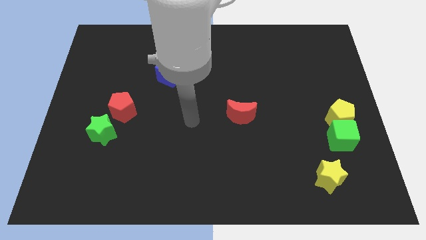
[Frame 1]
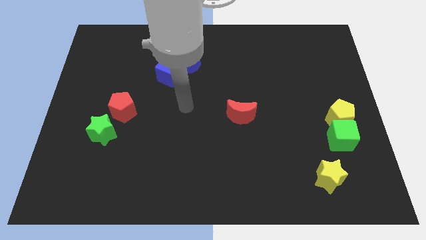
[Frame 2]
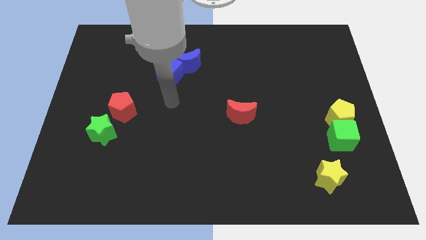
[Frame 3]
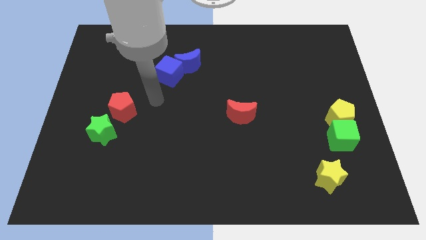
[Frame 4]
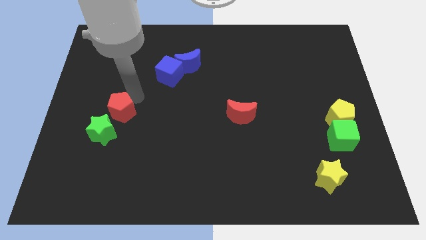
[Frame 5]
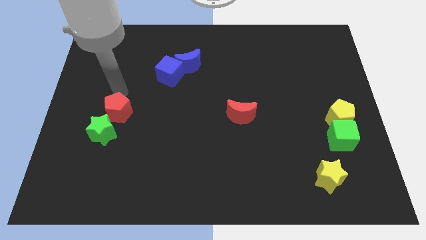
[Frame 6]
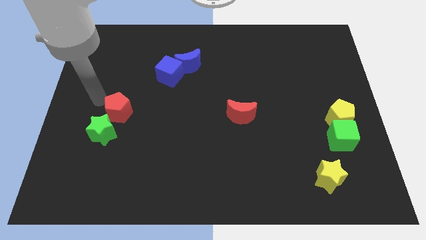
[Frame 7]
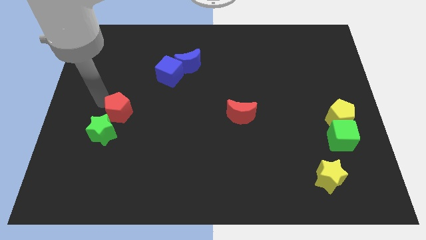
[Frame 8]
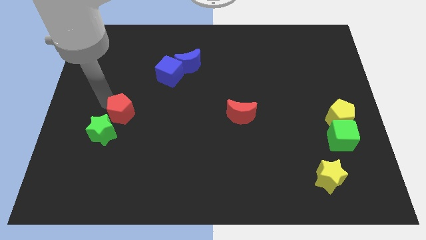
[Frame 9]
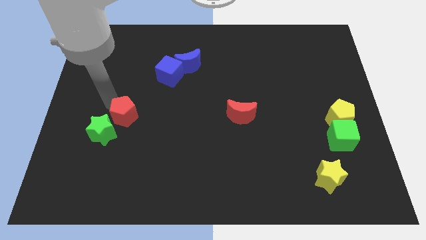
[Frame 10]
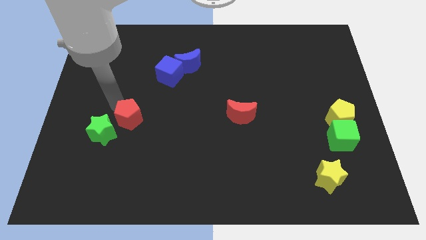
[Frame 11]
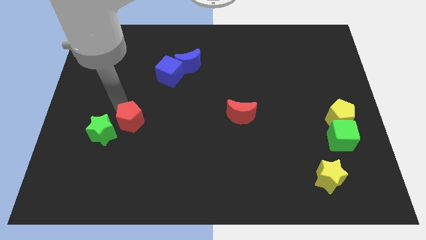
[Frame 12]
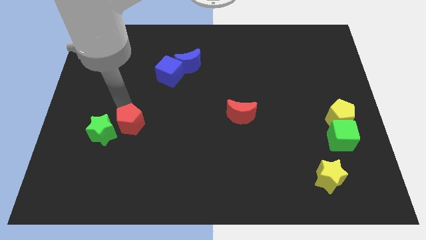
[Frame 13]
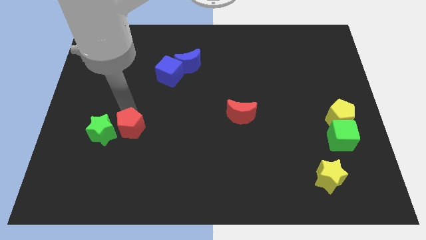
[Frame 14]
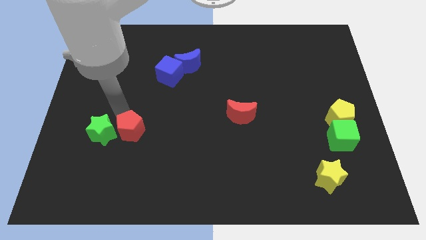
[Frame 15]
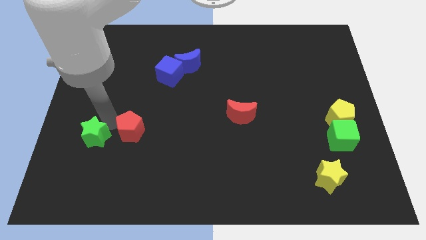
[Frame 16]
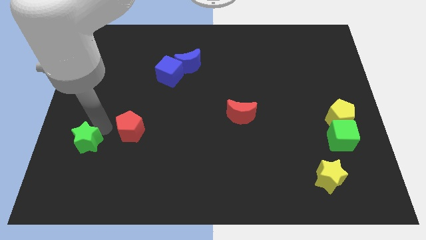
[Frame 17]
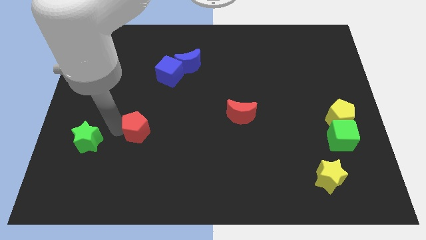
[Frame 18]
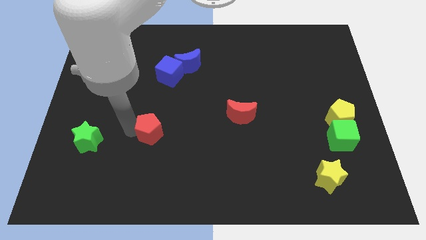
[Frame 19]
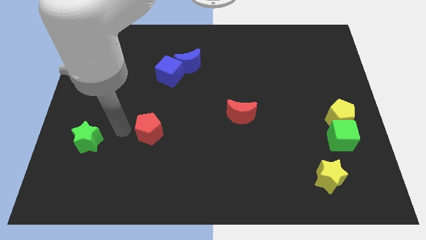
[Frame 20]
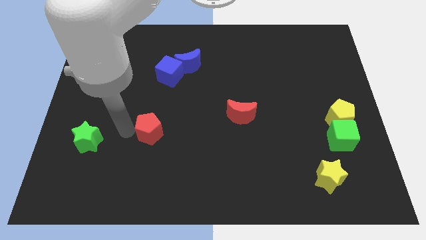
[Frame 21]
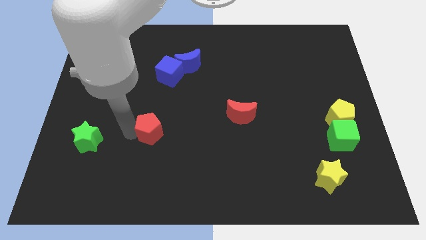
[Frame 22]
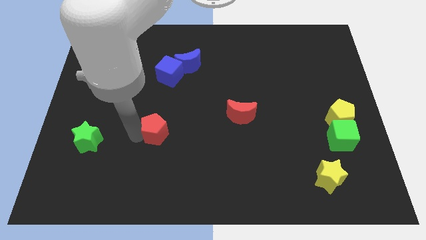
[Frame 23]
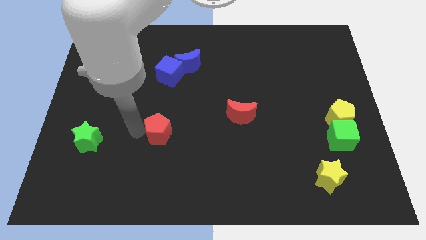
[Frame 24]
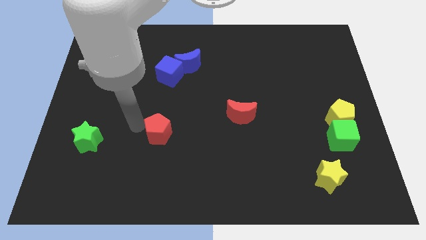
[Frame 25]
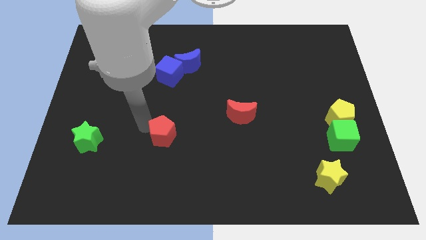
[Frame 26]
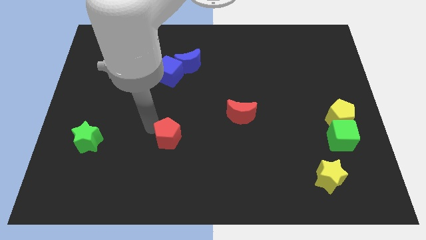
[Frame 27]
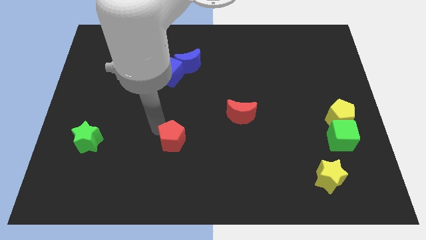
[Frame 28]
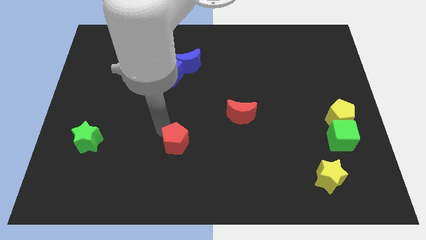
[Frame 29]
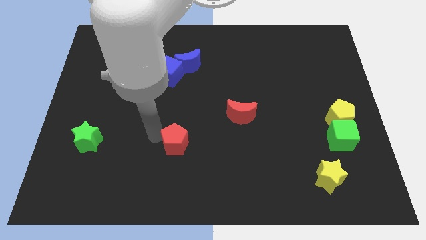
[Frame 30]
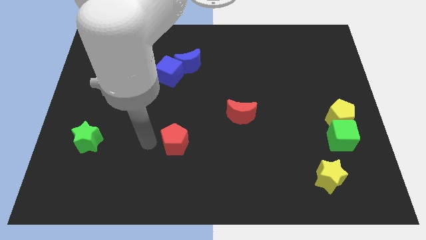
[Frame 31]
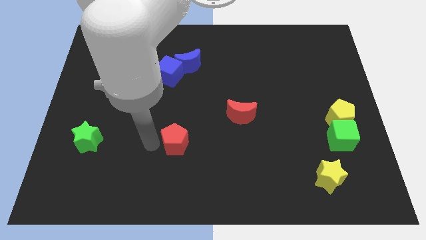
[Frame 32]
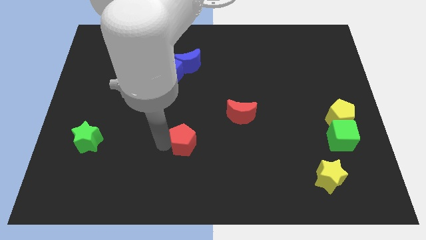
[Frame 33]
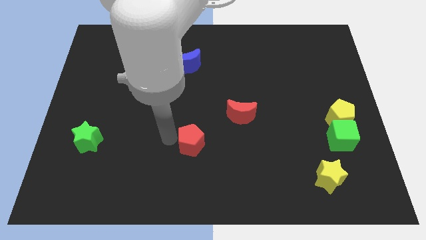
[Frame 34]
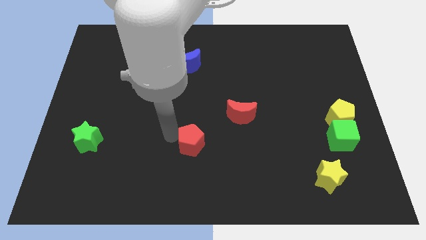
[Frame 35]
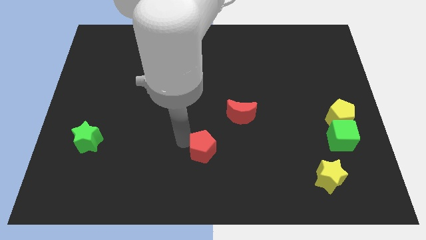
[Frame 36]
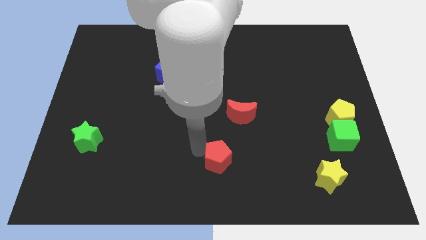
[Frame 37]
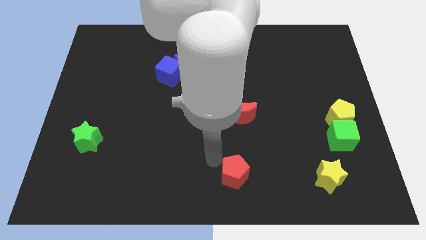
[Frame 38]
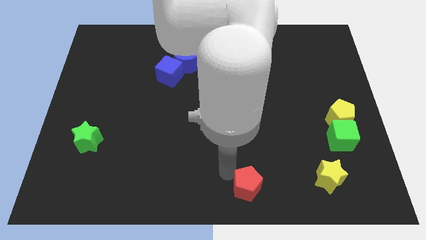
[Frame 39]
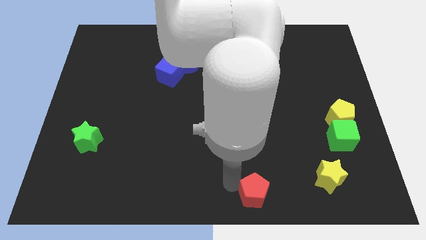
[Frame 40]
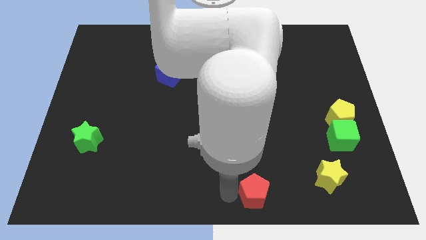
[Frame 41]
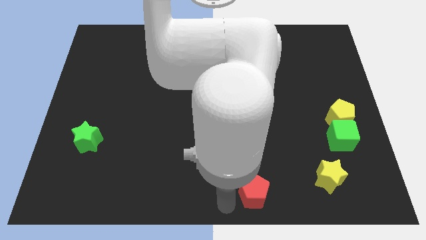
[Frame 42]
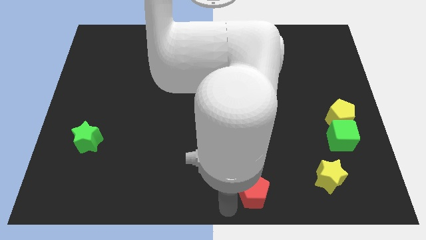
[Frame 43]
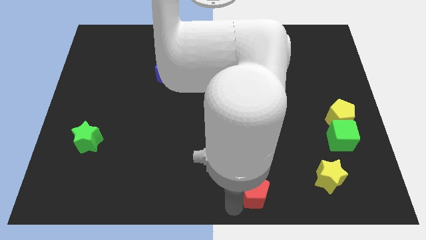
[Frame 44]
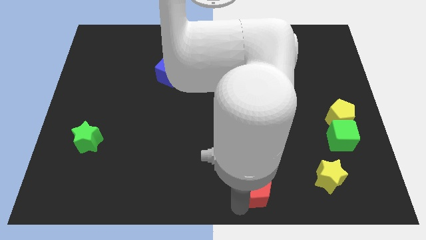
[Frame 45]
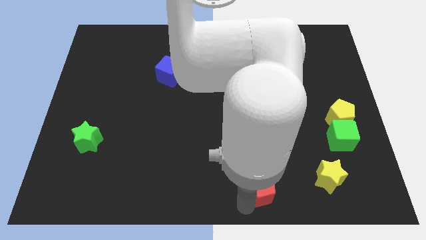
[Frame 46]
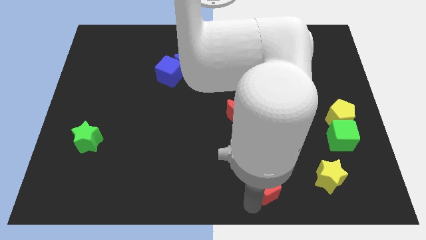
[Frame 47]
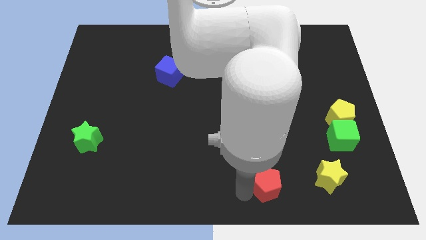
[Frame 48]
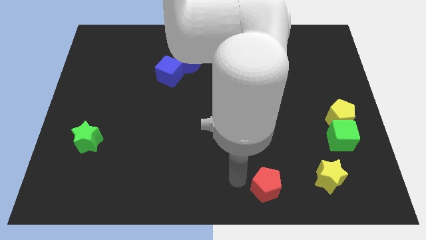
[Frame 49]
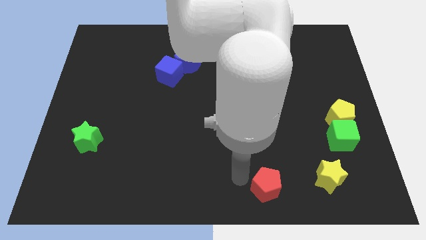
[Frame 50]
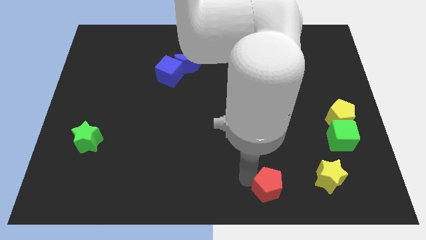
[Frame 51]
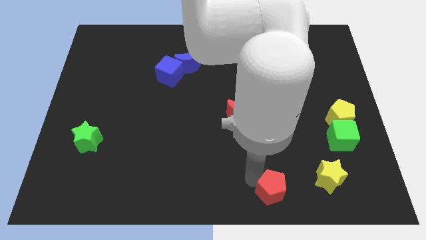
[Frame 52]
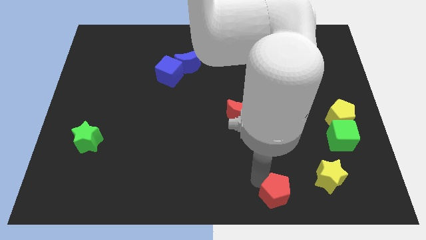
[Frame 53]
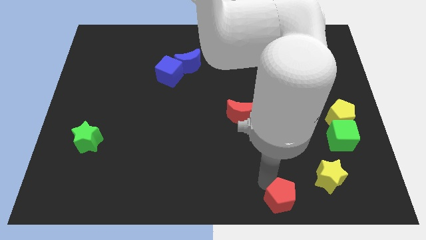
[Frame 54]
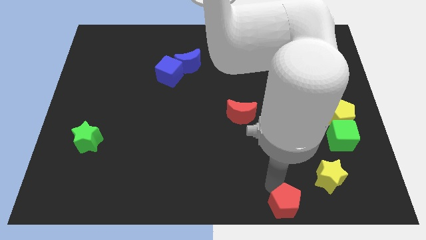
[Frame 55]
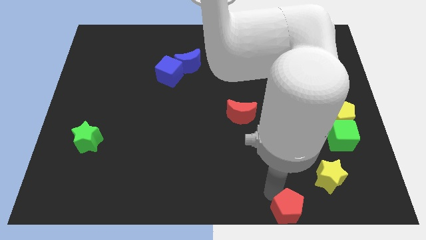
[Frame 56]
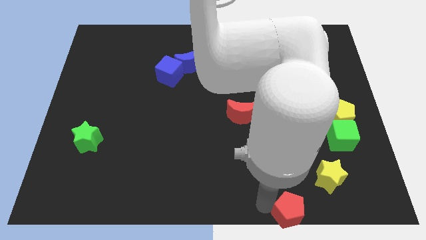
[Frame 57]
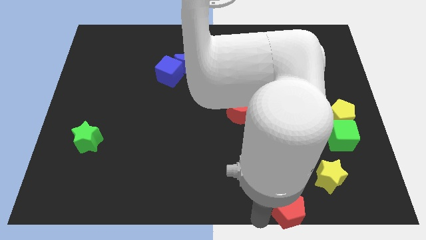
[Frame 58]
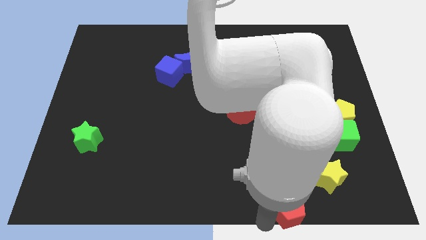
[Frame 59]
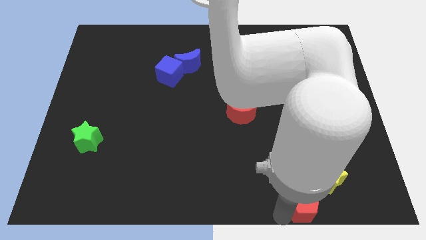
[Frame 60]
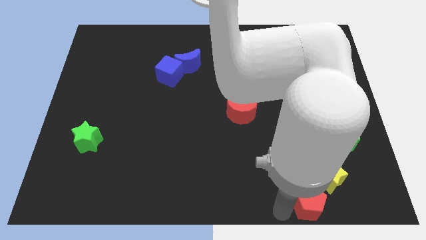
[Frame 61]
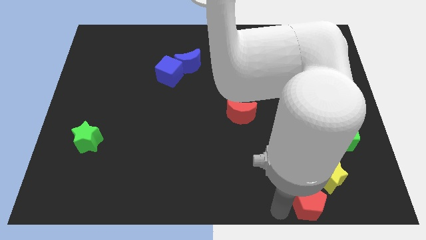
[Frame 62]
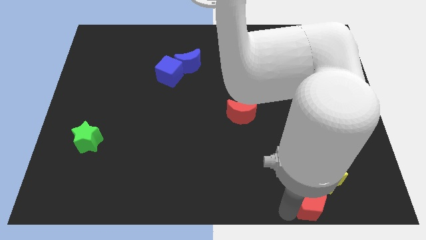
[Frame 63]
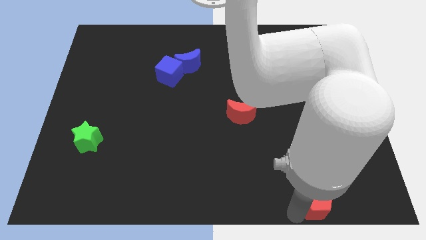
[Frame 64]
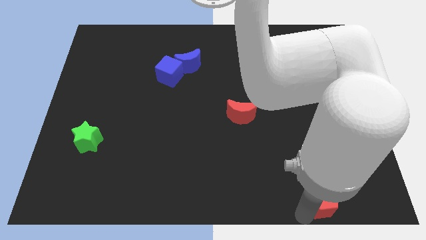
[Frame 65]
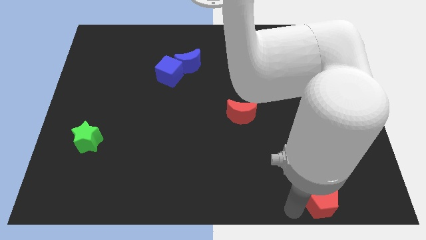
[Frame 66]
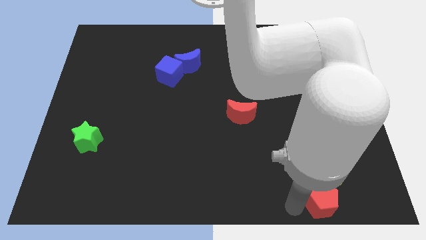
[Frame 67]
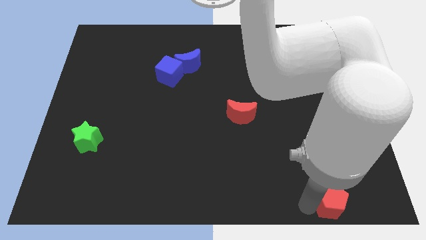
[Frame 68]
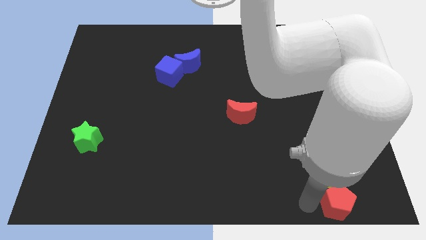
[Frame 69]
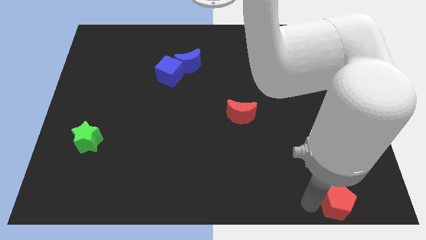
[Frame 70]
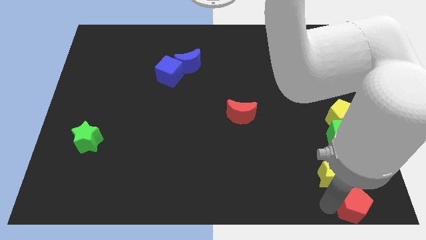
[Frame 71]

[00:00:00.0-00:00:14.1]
slide the red pentagon to the lower right corner

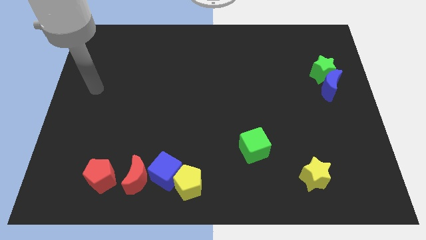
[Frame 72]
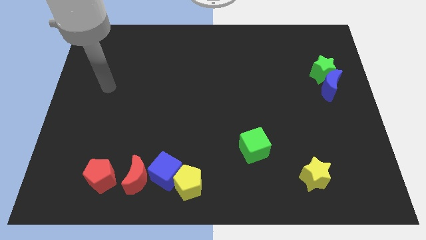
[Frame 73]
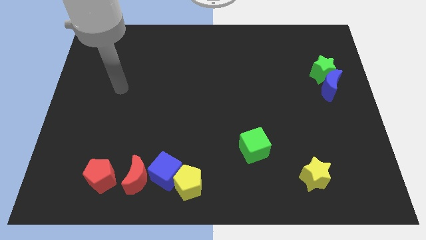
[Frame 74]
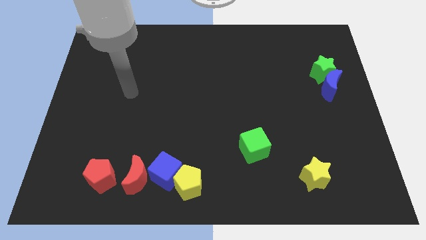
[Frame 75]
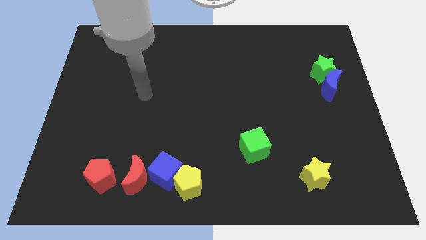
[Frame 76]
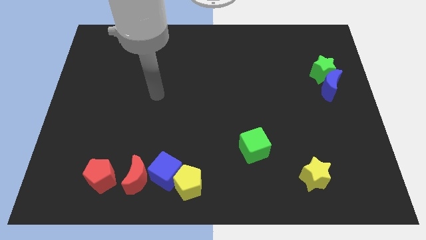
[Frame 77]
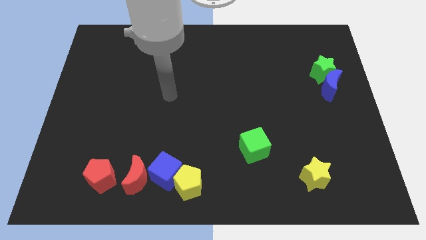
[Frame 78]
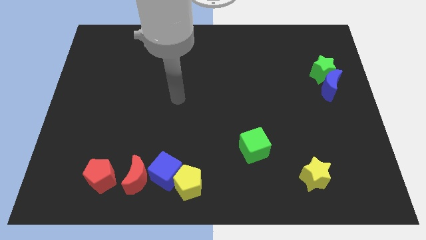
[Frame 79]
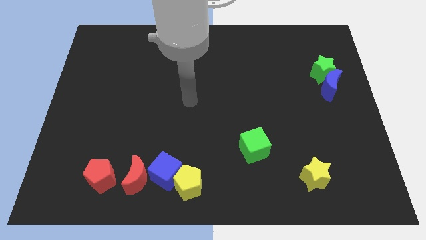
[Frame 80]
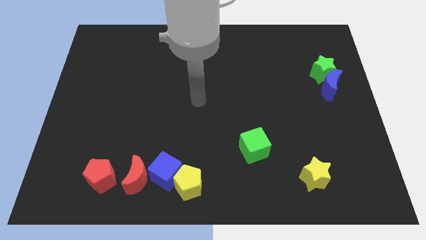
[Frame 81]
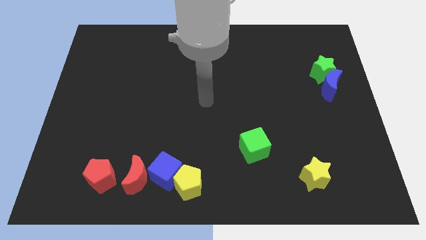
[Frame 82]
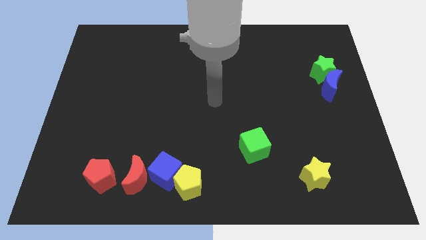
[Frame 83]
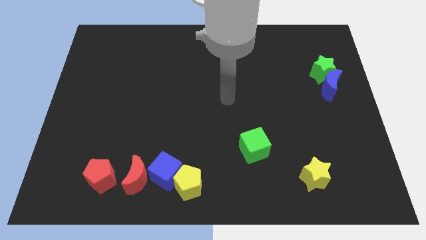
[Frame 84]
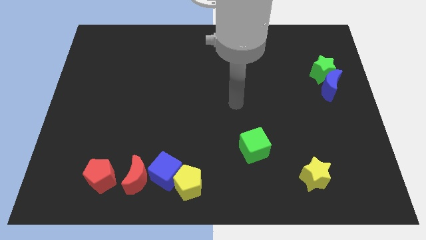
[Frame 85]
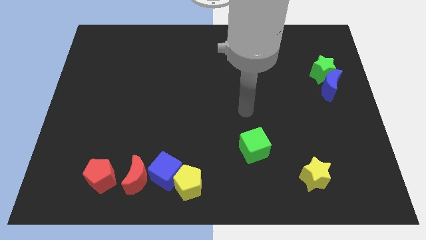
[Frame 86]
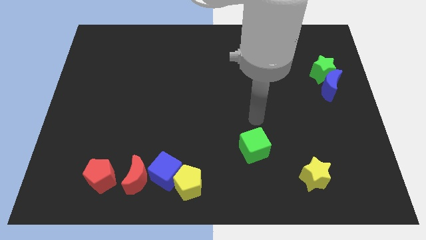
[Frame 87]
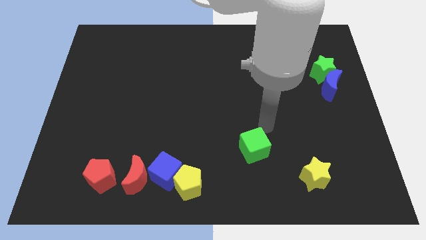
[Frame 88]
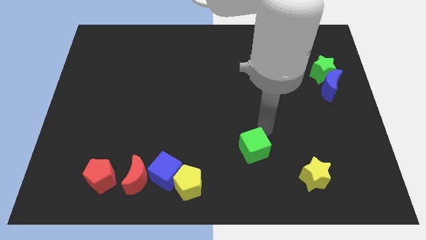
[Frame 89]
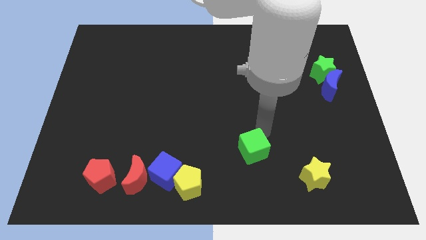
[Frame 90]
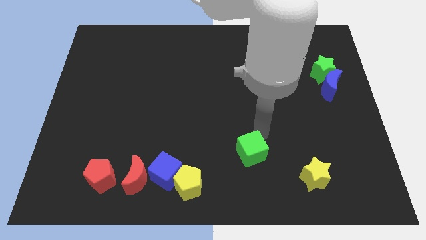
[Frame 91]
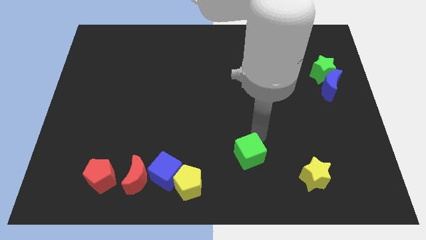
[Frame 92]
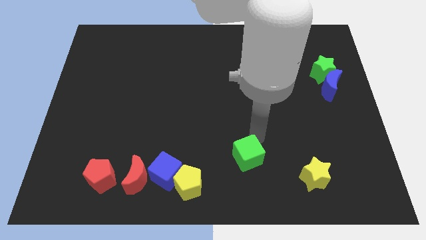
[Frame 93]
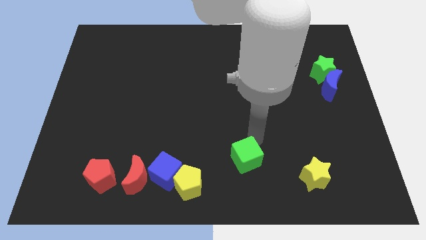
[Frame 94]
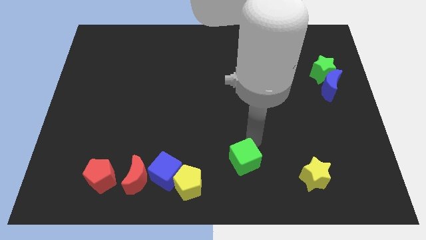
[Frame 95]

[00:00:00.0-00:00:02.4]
put the green cube to the bottom
